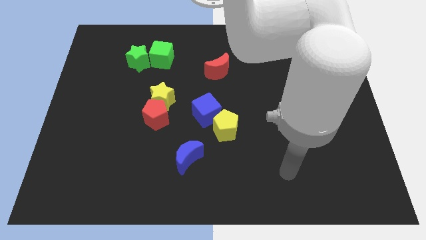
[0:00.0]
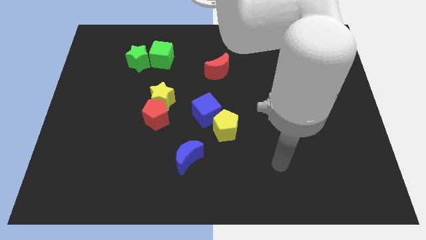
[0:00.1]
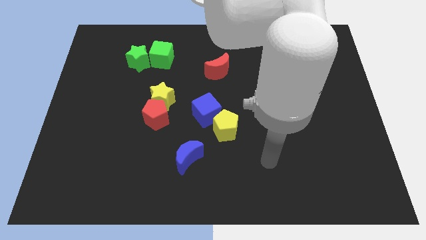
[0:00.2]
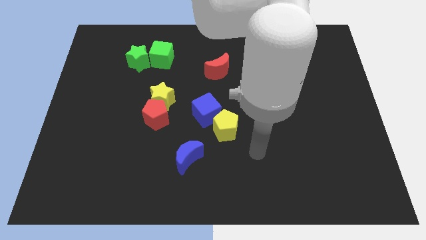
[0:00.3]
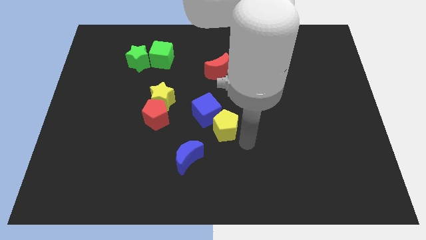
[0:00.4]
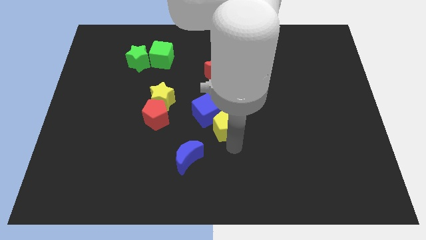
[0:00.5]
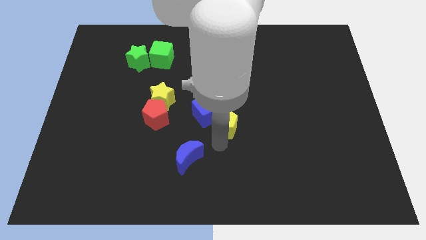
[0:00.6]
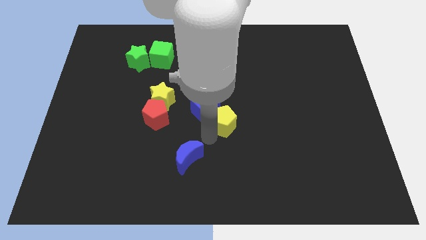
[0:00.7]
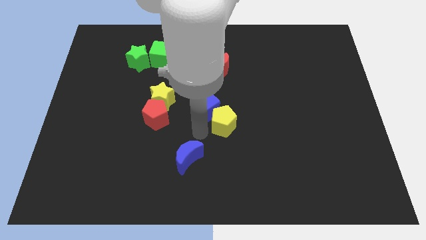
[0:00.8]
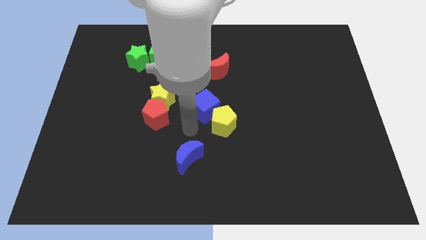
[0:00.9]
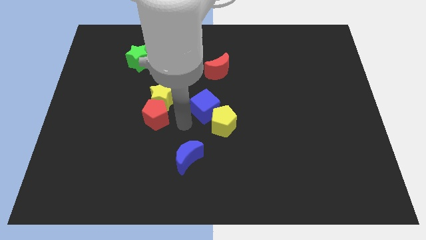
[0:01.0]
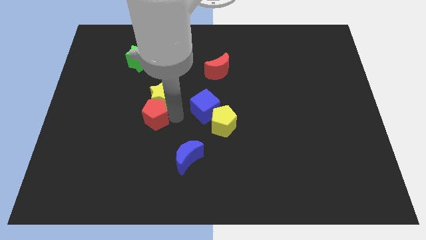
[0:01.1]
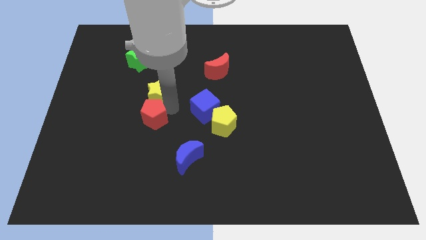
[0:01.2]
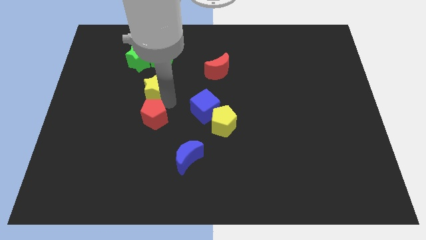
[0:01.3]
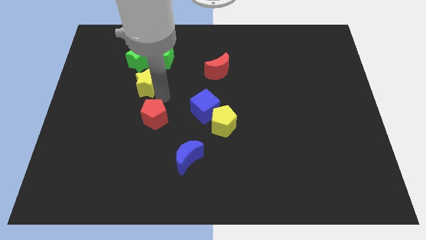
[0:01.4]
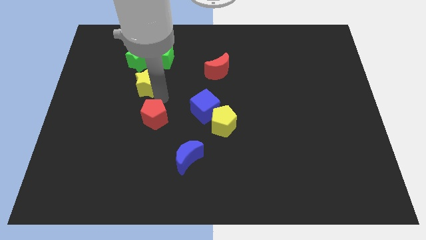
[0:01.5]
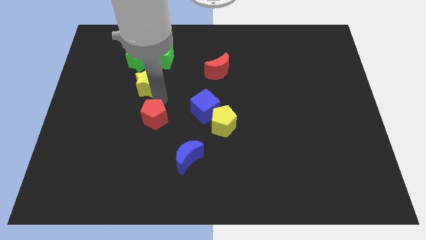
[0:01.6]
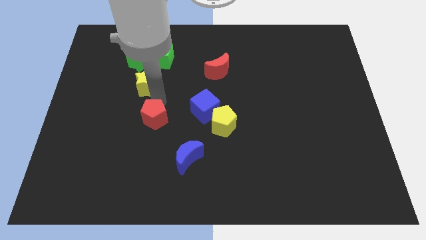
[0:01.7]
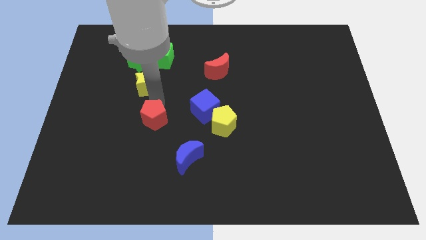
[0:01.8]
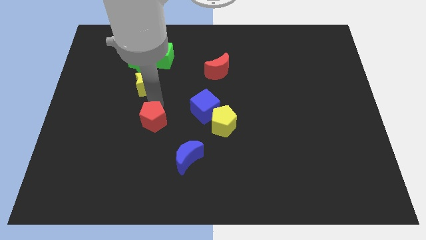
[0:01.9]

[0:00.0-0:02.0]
separate the red pentagon from the yellow star

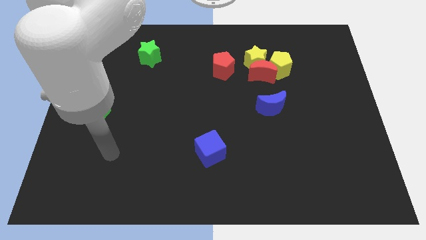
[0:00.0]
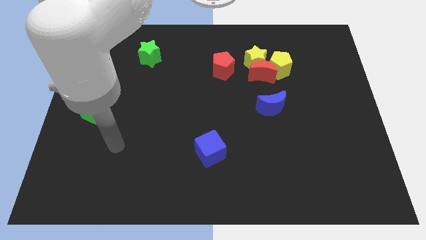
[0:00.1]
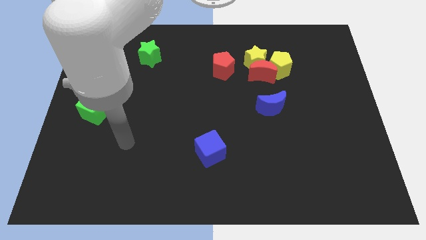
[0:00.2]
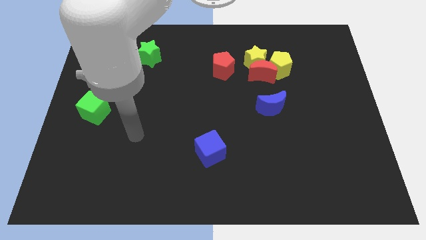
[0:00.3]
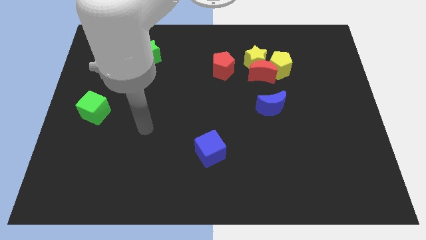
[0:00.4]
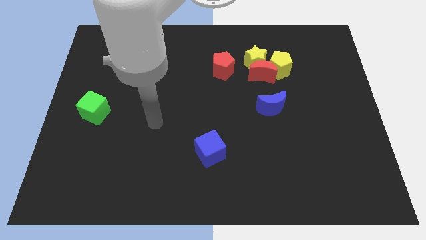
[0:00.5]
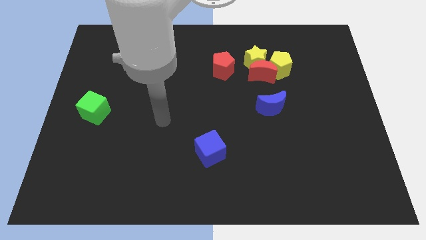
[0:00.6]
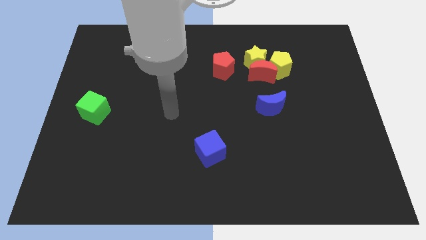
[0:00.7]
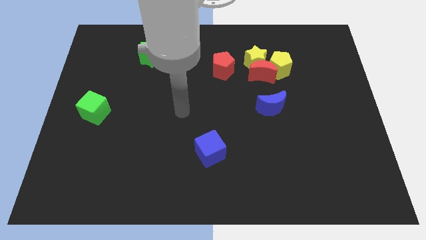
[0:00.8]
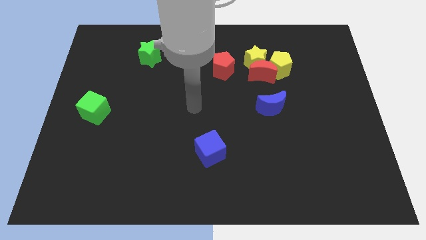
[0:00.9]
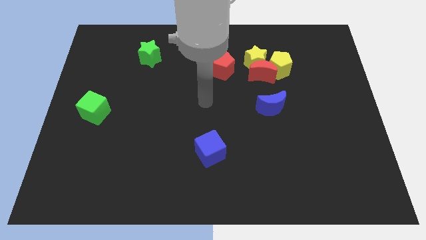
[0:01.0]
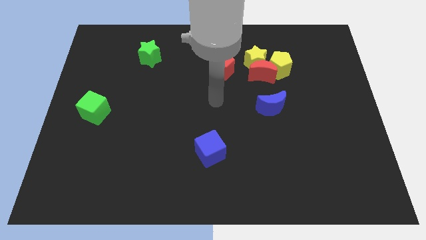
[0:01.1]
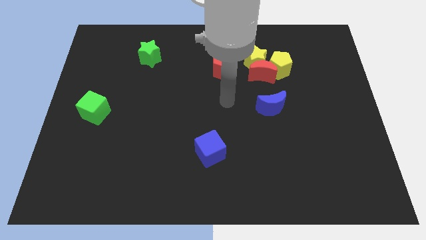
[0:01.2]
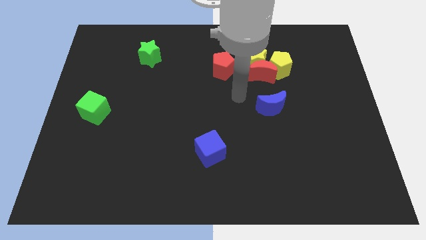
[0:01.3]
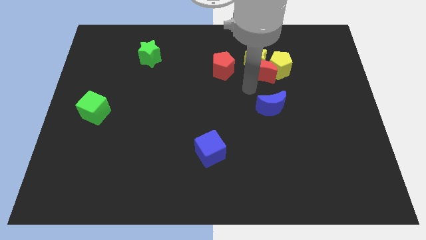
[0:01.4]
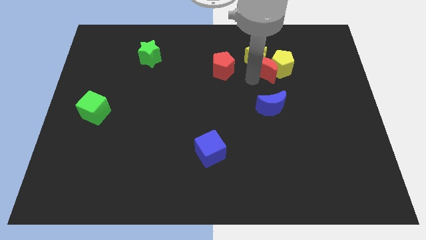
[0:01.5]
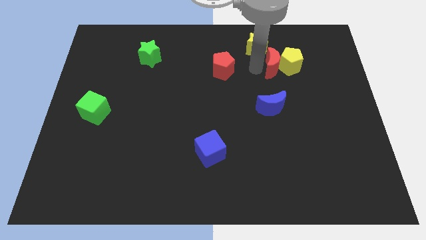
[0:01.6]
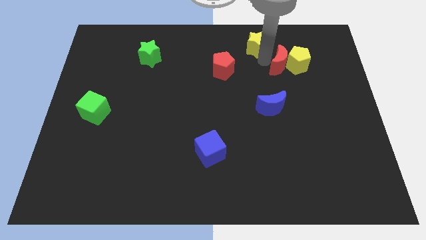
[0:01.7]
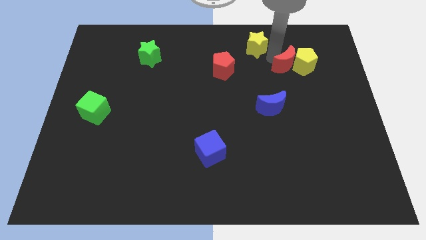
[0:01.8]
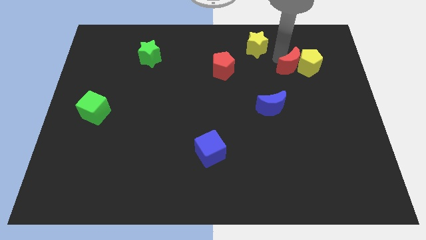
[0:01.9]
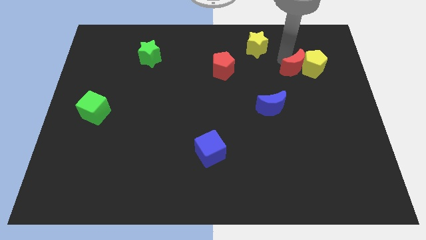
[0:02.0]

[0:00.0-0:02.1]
move the yellow pentagon away from the red moon and yellow star

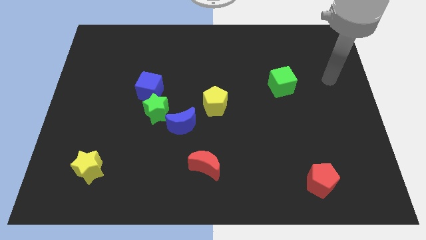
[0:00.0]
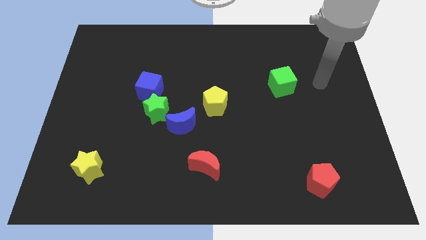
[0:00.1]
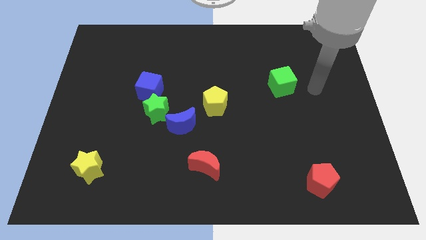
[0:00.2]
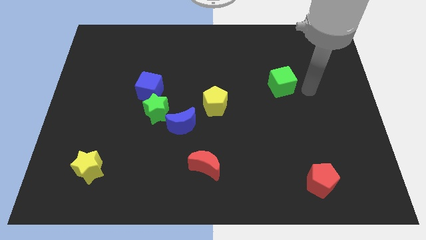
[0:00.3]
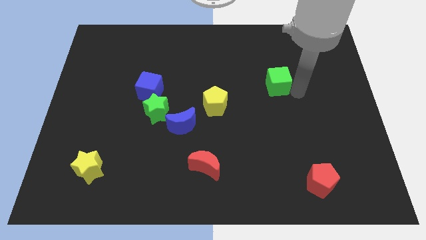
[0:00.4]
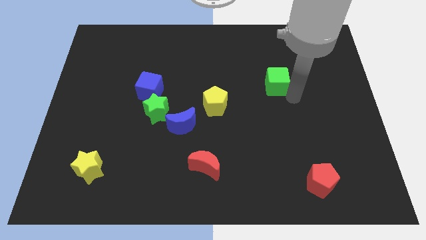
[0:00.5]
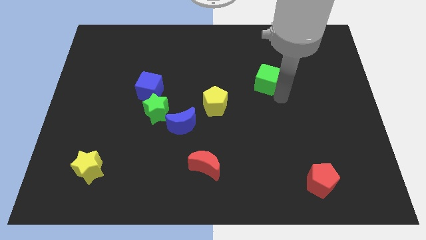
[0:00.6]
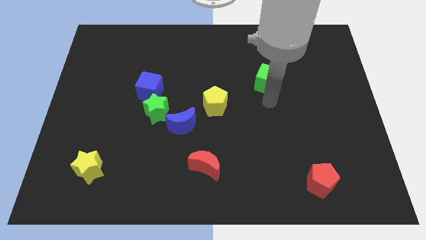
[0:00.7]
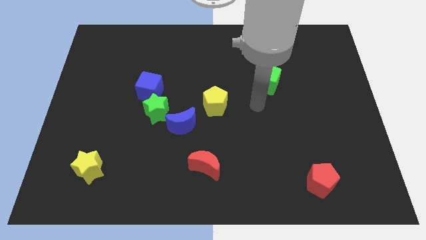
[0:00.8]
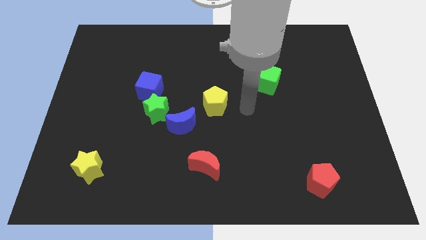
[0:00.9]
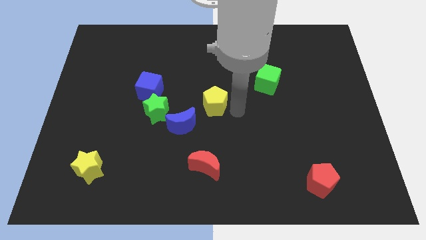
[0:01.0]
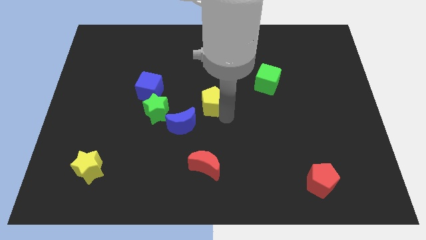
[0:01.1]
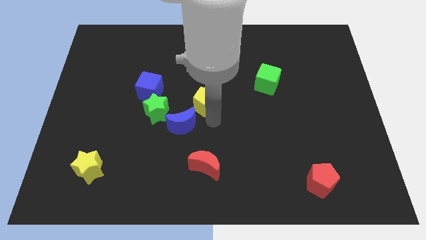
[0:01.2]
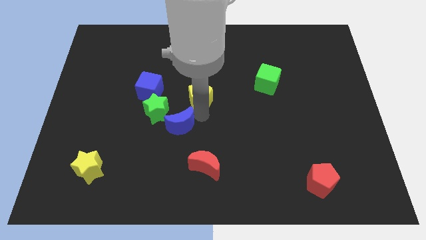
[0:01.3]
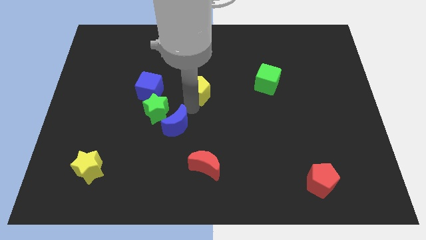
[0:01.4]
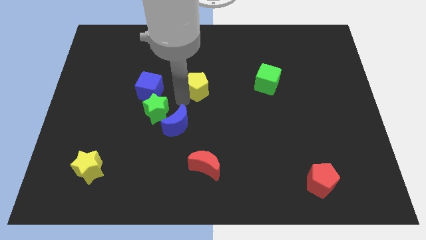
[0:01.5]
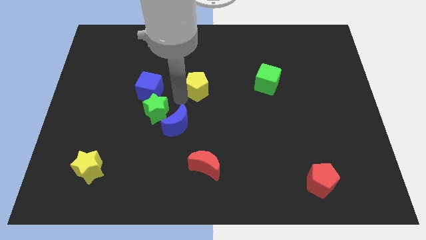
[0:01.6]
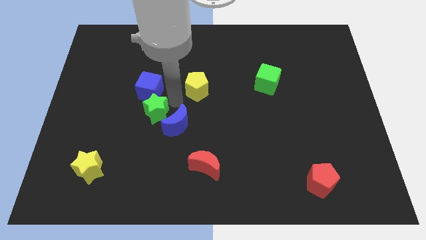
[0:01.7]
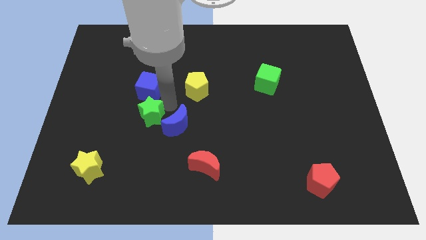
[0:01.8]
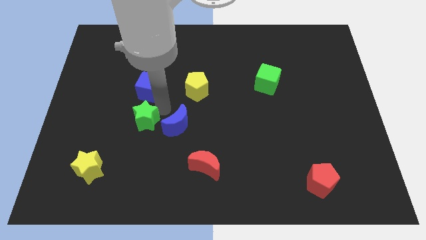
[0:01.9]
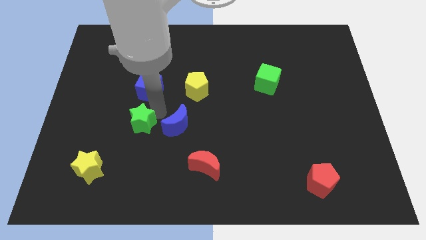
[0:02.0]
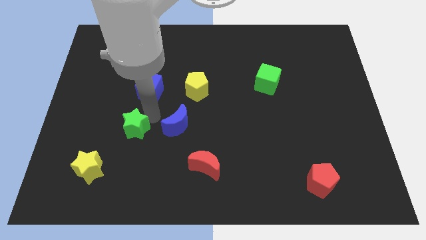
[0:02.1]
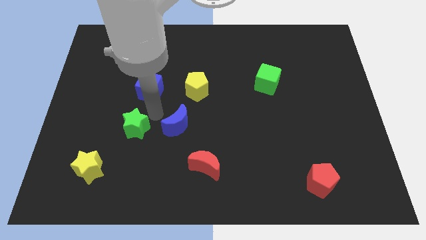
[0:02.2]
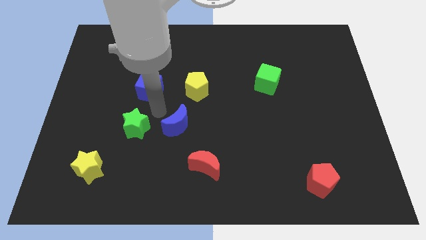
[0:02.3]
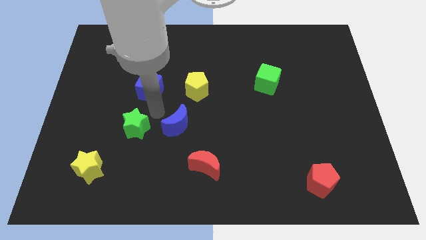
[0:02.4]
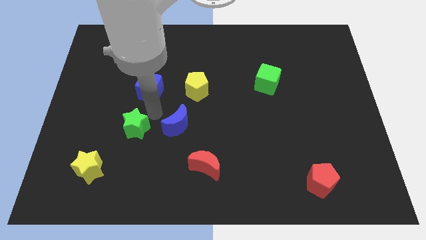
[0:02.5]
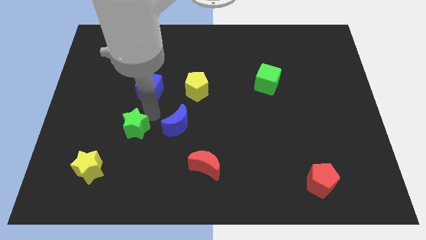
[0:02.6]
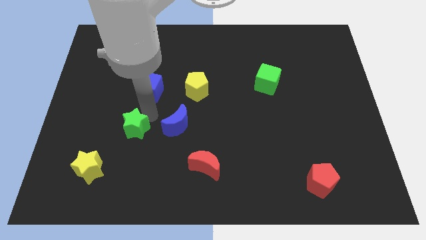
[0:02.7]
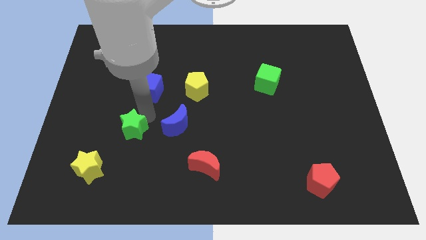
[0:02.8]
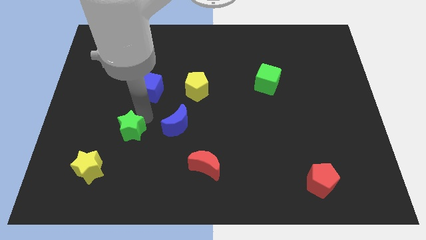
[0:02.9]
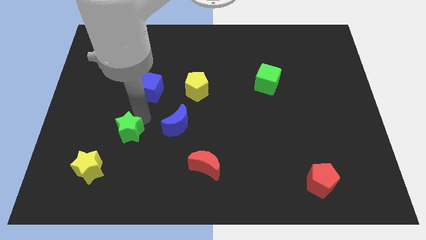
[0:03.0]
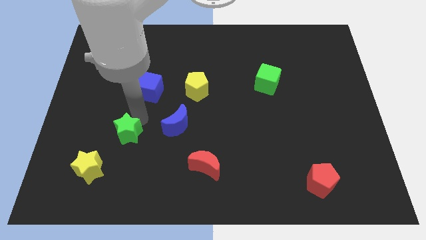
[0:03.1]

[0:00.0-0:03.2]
separate the green star from the blue moon and blue cube

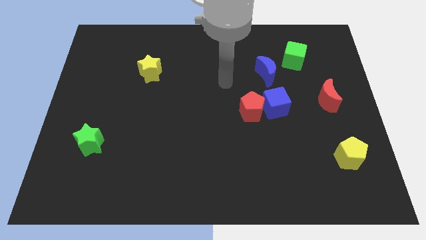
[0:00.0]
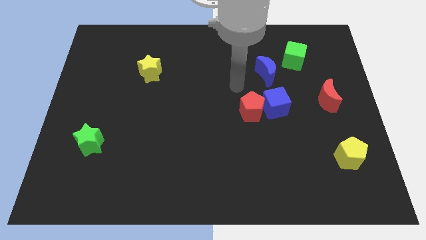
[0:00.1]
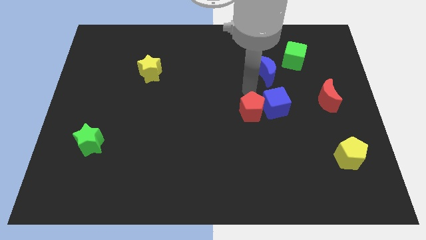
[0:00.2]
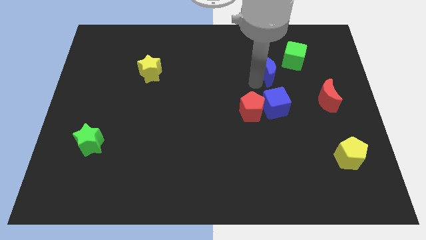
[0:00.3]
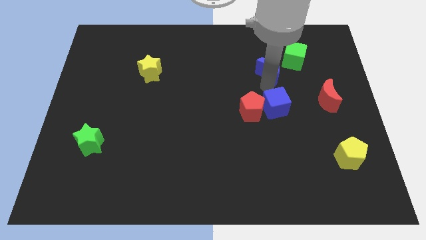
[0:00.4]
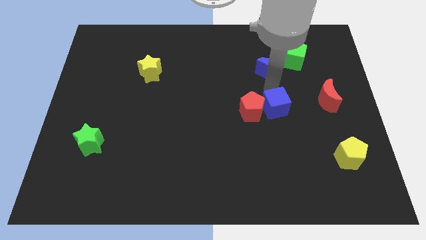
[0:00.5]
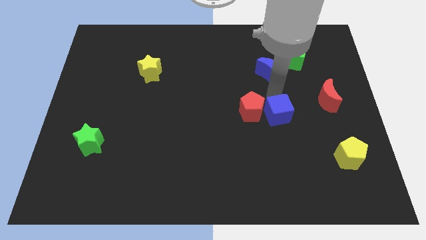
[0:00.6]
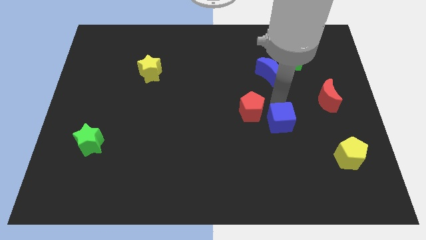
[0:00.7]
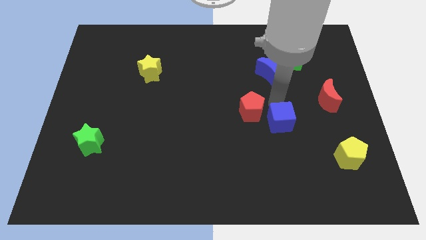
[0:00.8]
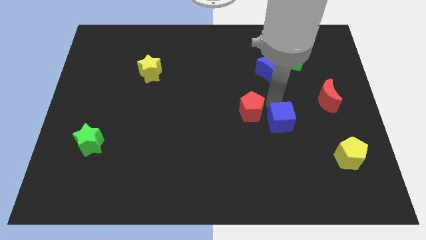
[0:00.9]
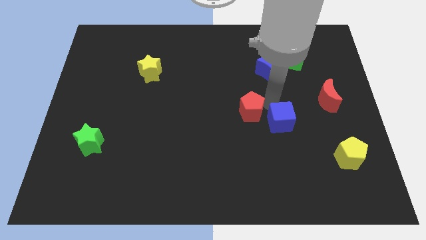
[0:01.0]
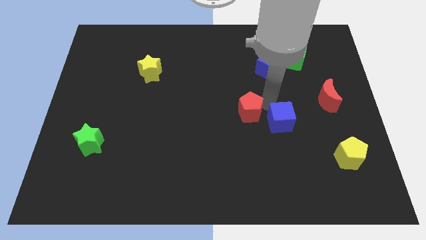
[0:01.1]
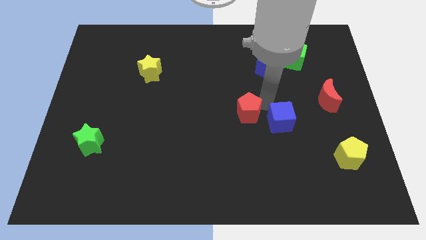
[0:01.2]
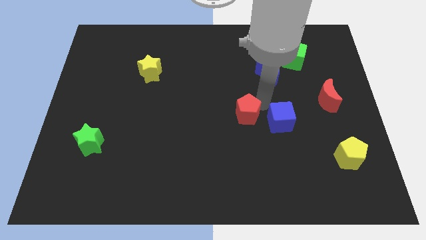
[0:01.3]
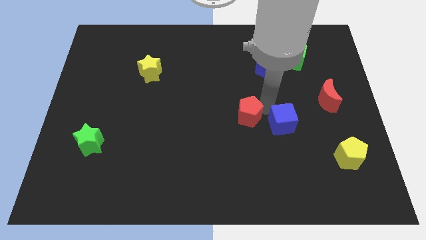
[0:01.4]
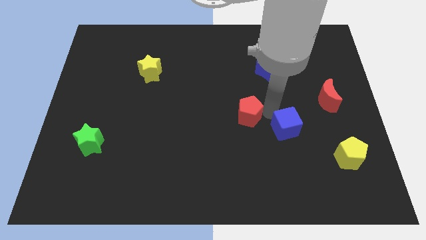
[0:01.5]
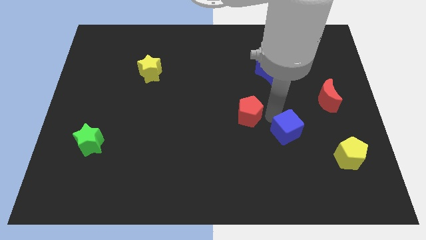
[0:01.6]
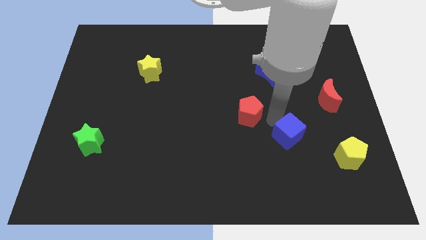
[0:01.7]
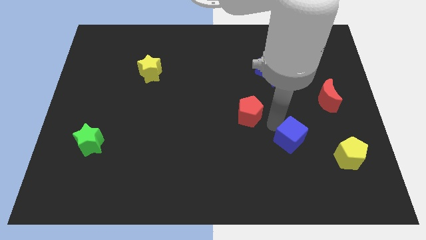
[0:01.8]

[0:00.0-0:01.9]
pull the red pentagon apart from the blue cube

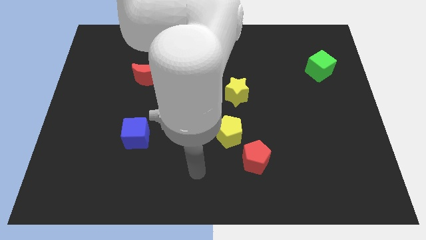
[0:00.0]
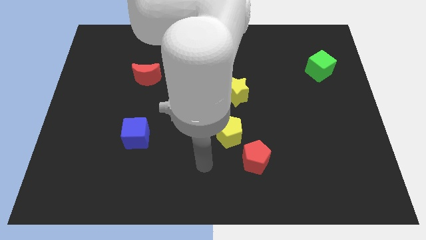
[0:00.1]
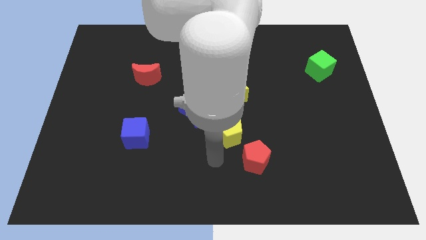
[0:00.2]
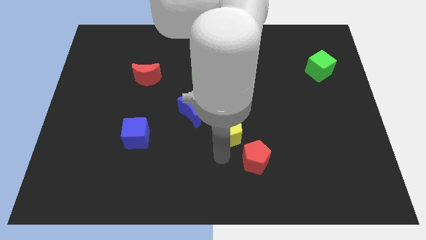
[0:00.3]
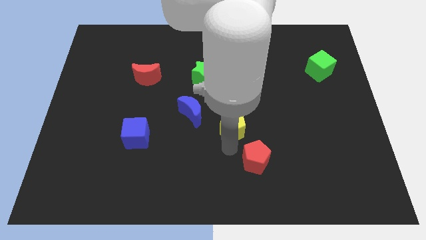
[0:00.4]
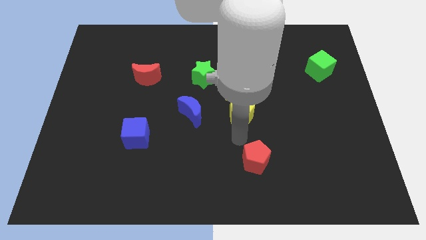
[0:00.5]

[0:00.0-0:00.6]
separate the red pentagon from the yellow pentagon
